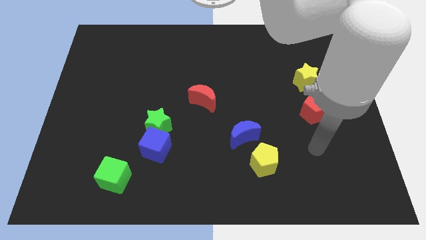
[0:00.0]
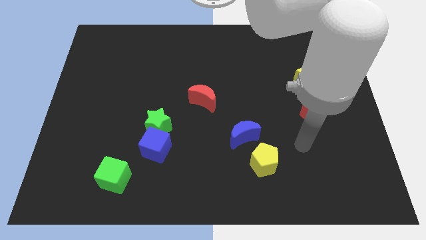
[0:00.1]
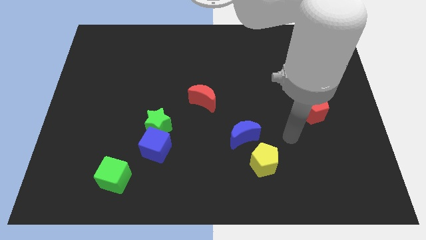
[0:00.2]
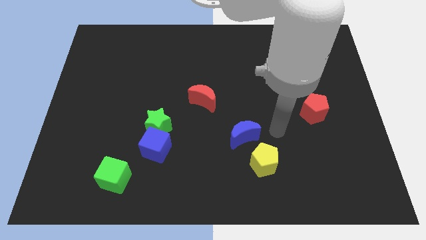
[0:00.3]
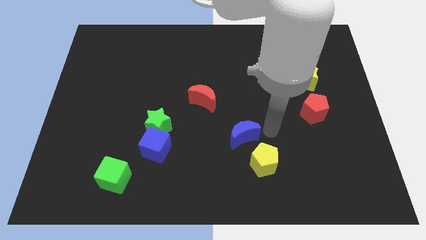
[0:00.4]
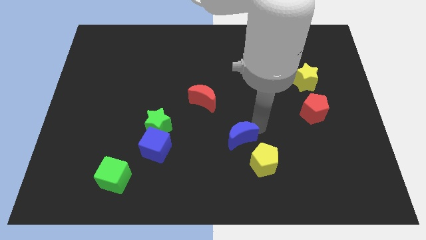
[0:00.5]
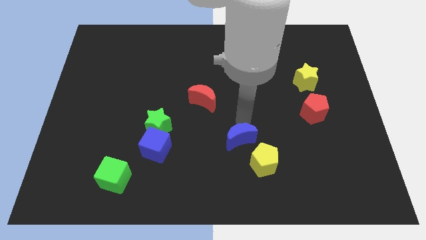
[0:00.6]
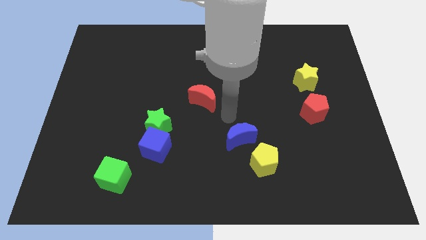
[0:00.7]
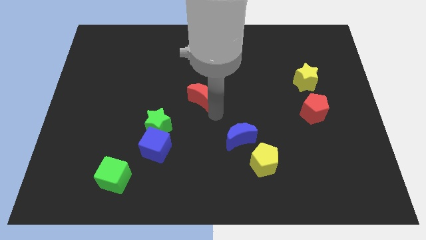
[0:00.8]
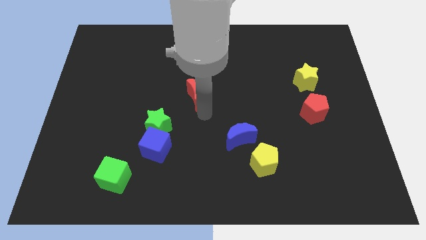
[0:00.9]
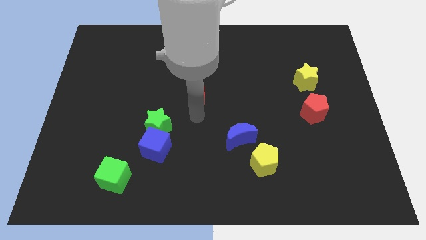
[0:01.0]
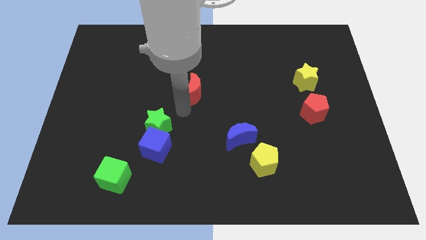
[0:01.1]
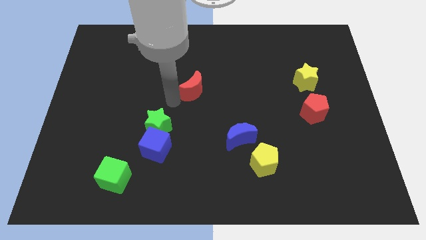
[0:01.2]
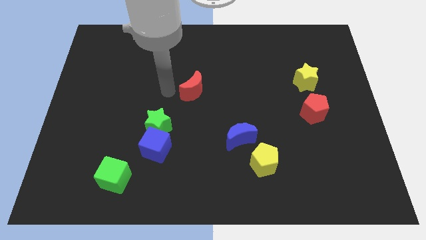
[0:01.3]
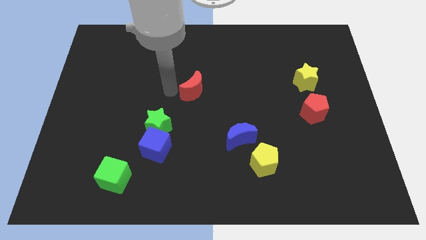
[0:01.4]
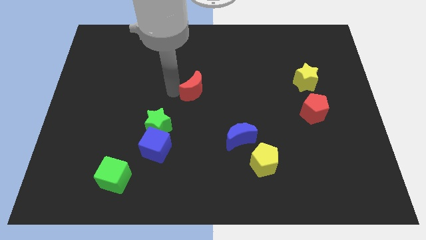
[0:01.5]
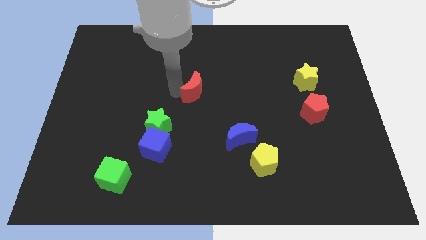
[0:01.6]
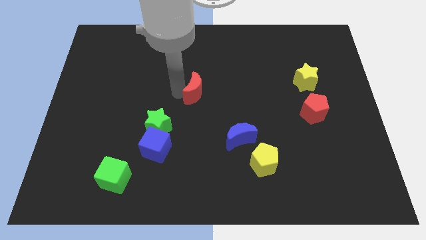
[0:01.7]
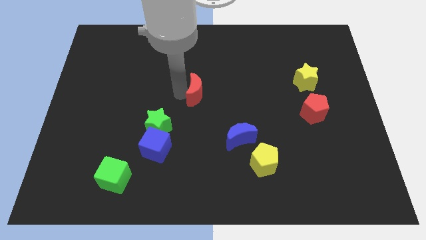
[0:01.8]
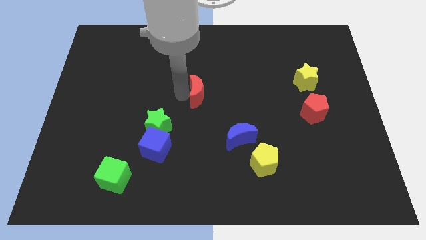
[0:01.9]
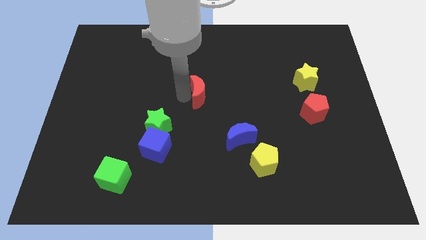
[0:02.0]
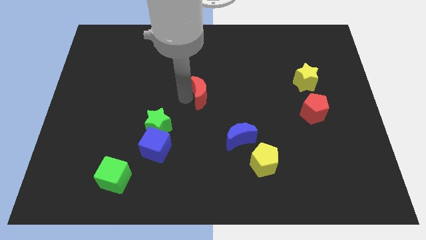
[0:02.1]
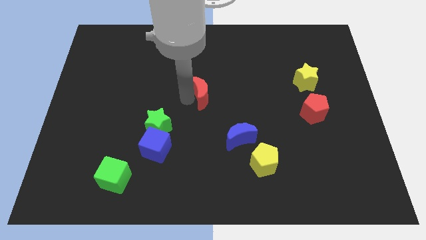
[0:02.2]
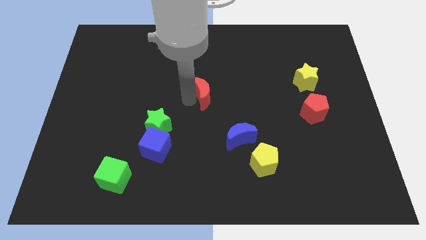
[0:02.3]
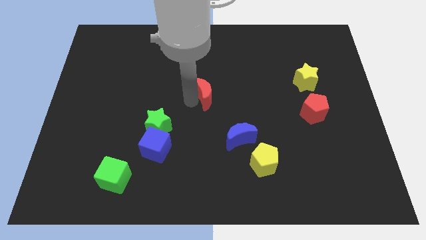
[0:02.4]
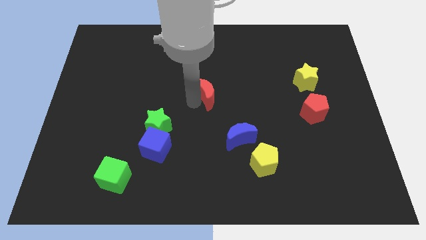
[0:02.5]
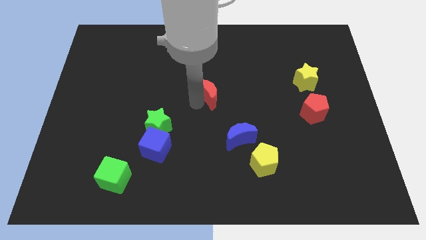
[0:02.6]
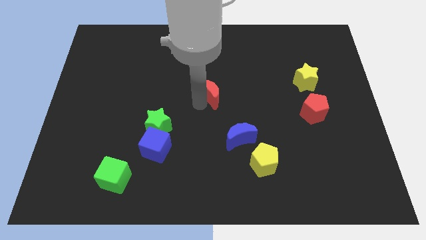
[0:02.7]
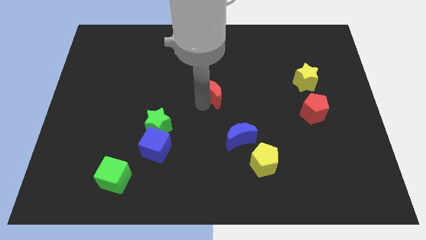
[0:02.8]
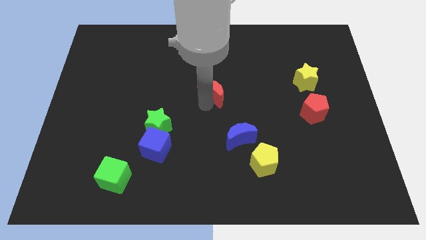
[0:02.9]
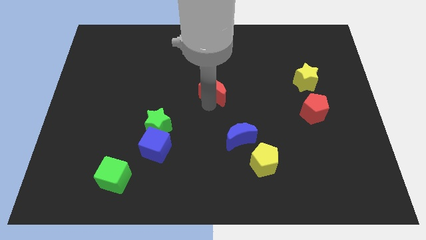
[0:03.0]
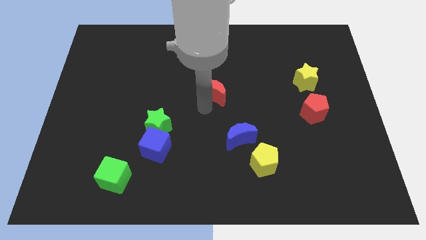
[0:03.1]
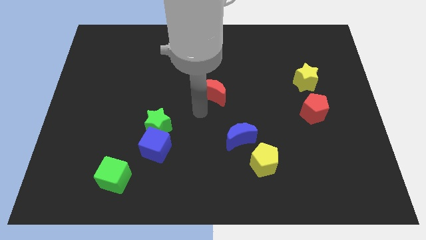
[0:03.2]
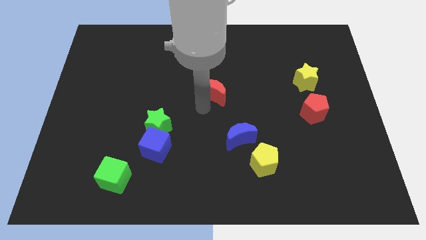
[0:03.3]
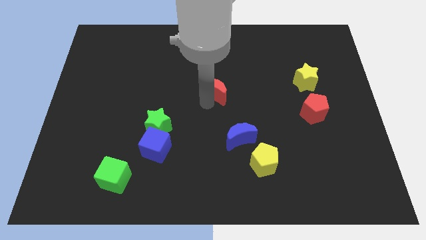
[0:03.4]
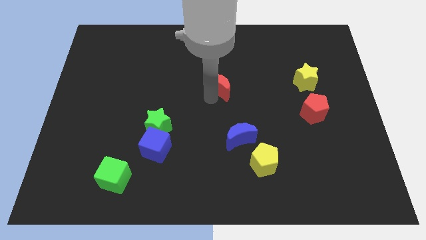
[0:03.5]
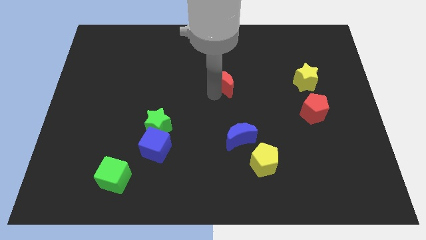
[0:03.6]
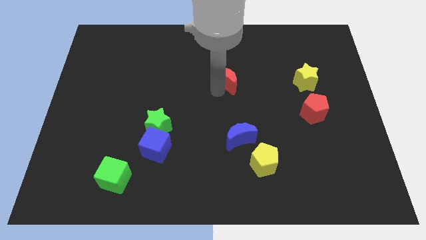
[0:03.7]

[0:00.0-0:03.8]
slide the red moon upwards and to the right diagonally somewhat

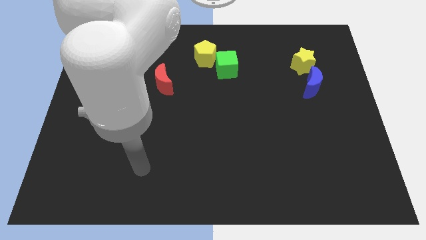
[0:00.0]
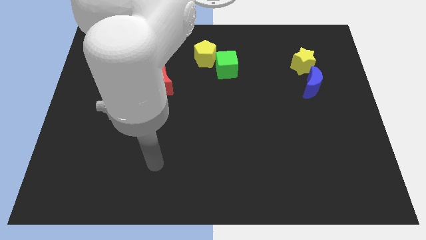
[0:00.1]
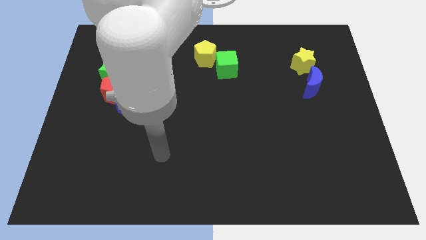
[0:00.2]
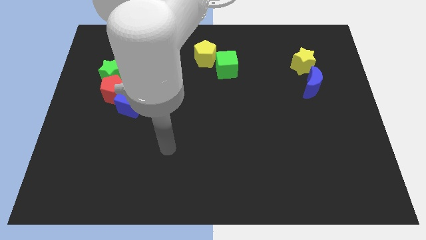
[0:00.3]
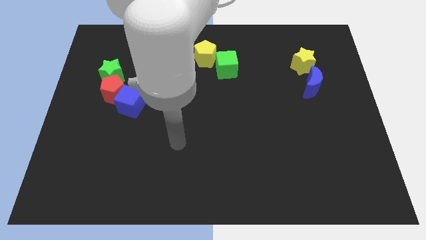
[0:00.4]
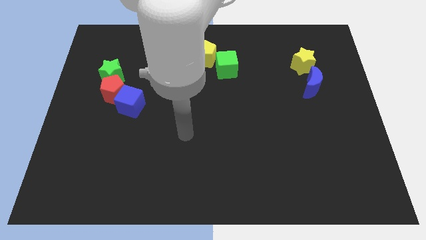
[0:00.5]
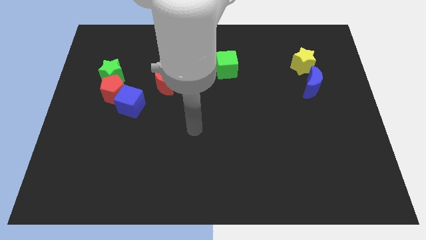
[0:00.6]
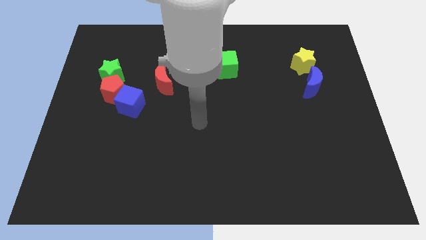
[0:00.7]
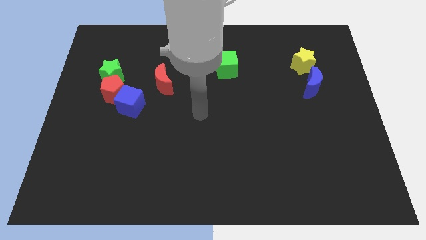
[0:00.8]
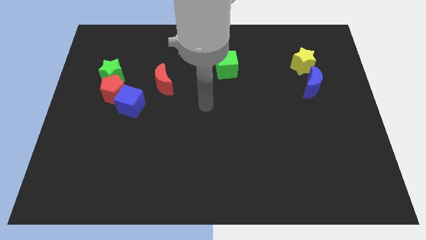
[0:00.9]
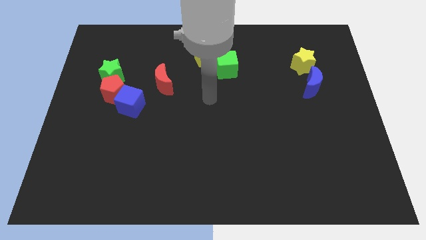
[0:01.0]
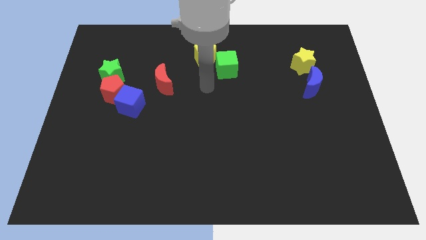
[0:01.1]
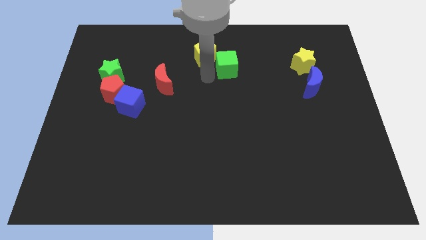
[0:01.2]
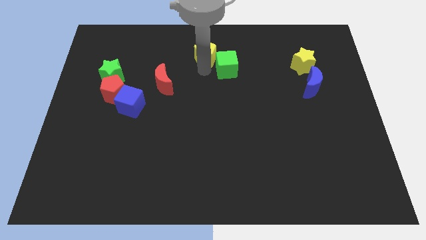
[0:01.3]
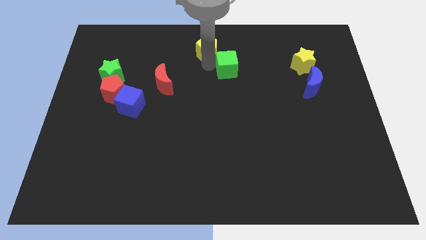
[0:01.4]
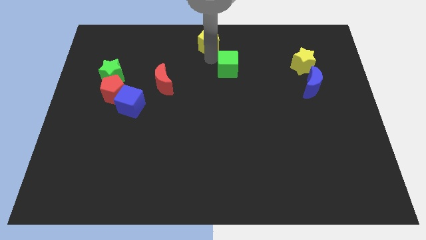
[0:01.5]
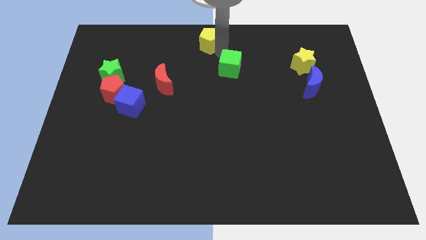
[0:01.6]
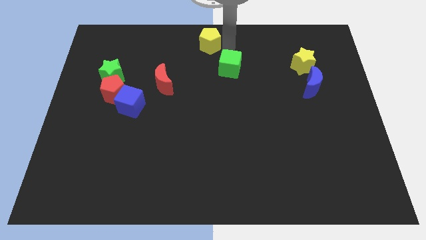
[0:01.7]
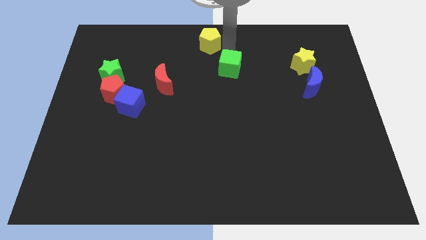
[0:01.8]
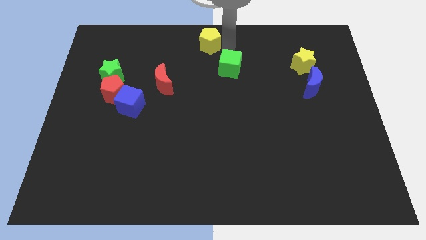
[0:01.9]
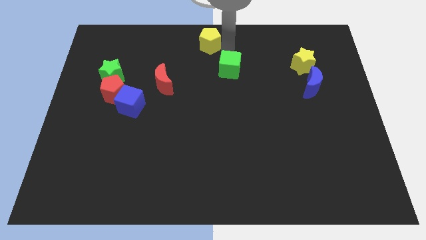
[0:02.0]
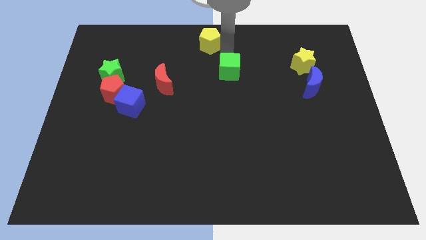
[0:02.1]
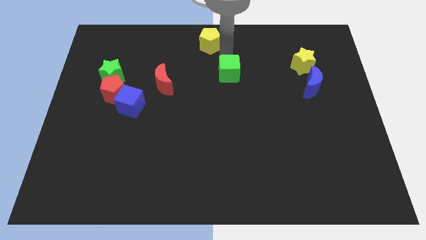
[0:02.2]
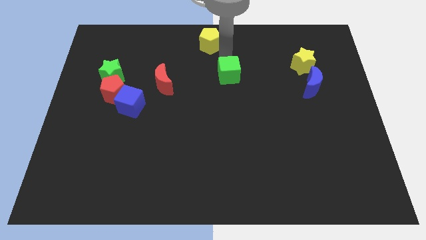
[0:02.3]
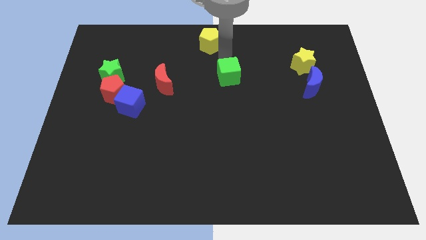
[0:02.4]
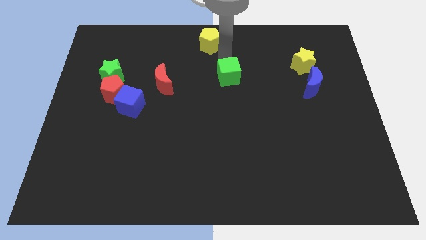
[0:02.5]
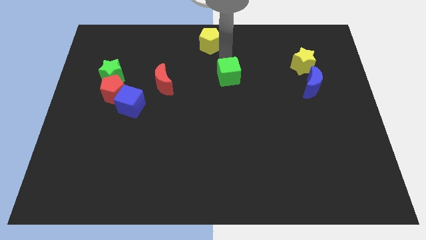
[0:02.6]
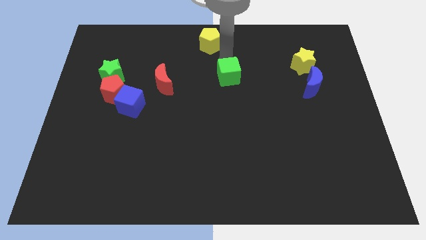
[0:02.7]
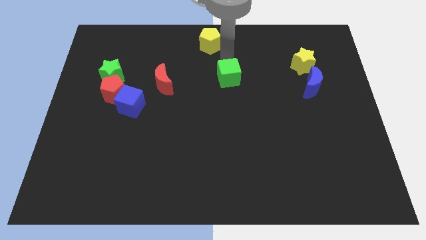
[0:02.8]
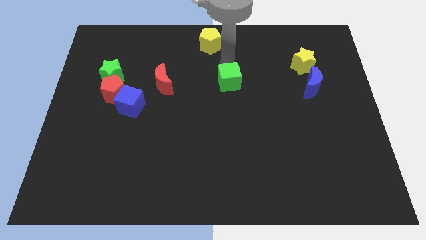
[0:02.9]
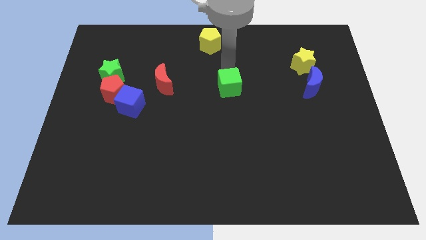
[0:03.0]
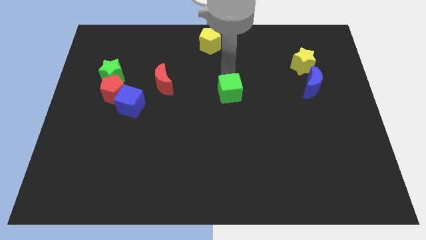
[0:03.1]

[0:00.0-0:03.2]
slide the green cube down a bit

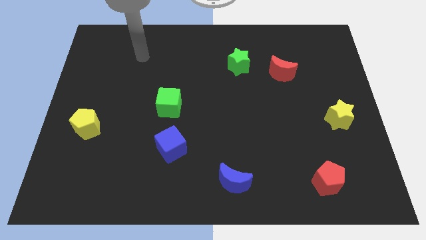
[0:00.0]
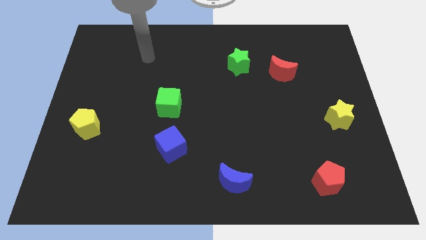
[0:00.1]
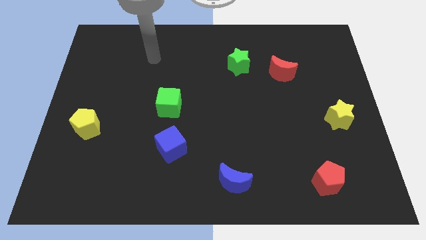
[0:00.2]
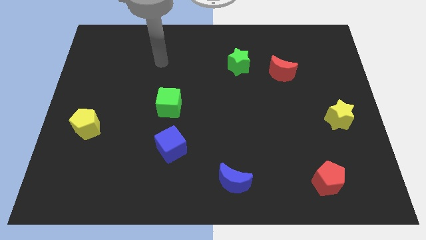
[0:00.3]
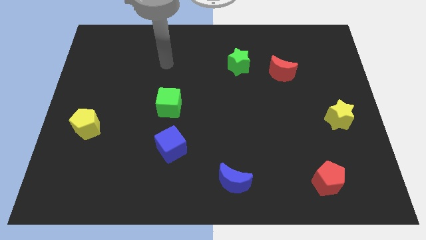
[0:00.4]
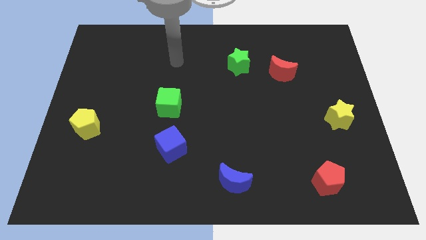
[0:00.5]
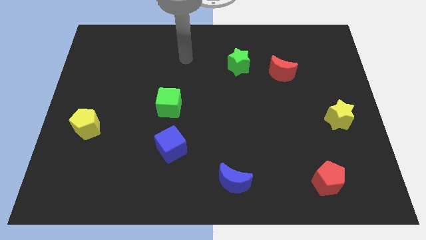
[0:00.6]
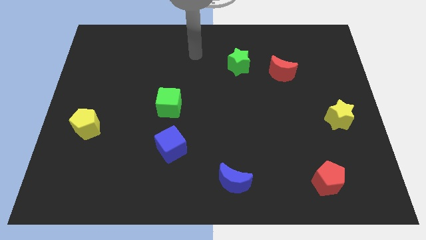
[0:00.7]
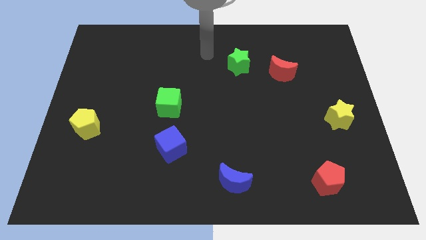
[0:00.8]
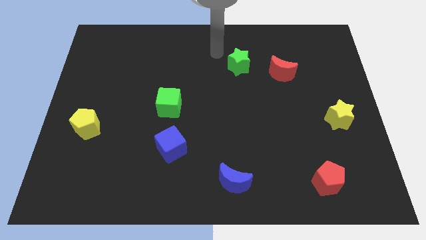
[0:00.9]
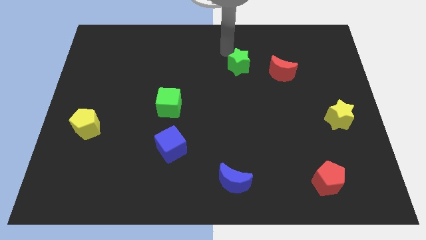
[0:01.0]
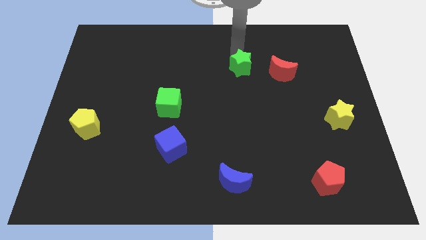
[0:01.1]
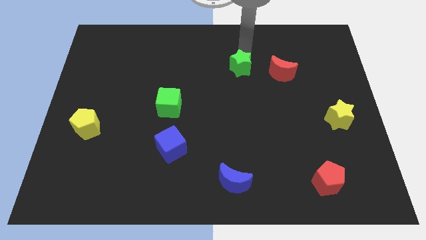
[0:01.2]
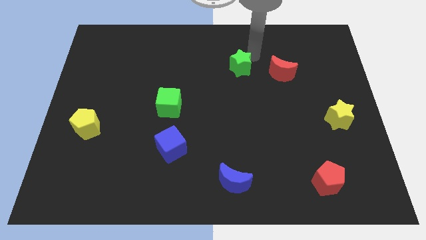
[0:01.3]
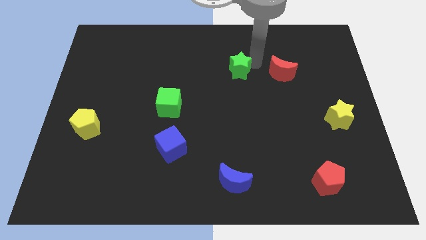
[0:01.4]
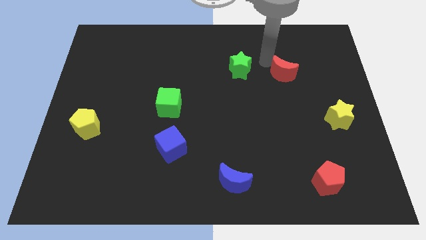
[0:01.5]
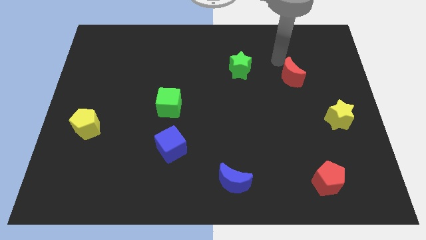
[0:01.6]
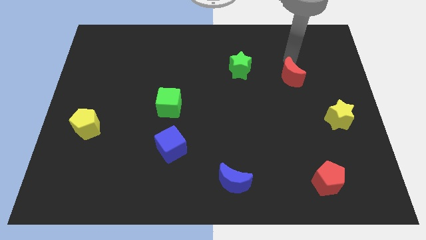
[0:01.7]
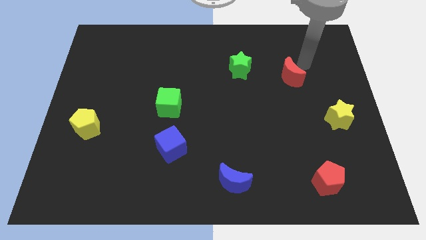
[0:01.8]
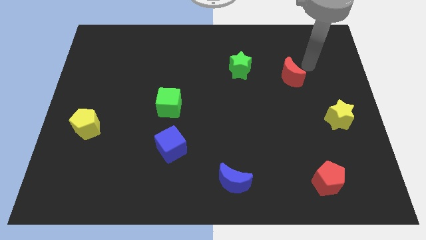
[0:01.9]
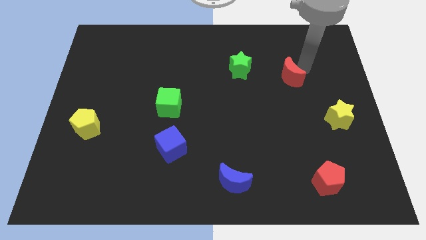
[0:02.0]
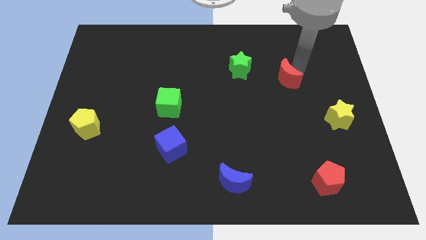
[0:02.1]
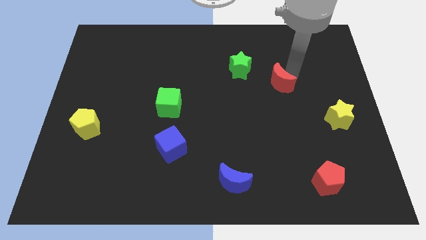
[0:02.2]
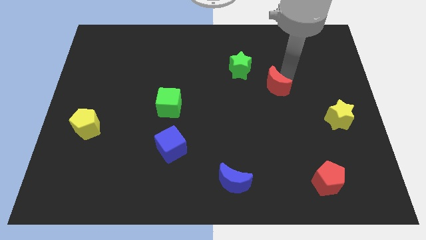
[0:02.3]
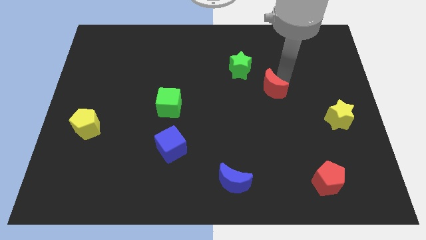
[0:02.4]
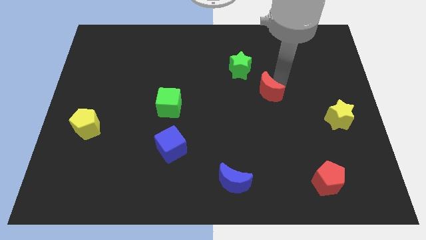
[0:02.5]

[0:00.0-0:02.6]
slide the red moon diagonally down and left somewhat
